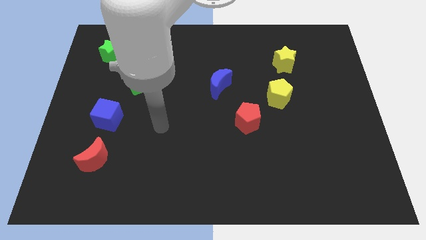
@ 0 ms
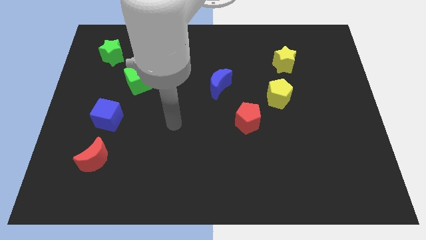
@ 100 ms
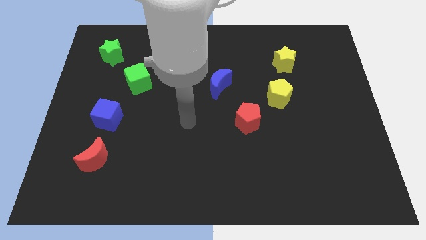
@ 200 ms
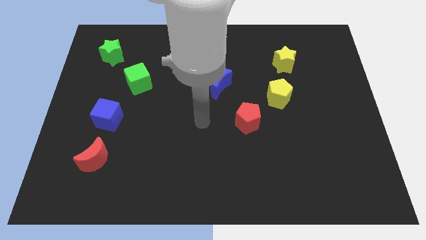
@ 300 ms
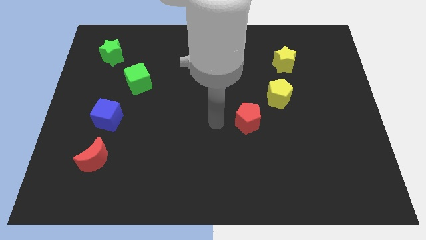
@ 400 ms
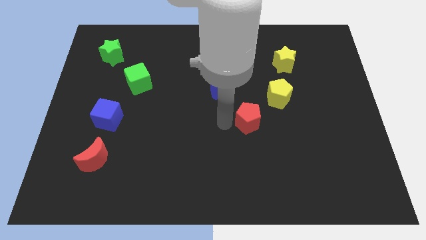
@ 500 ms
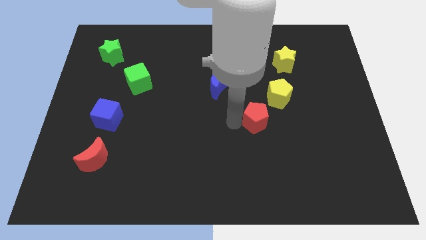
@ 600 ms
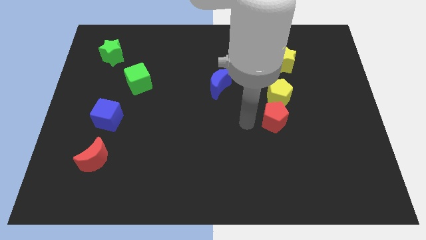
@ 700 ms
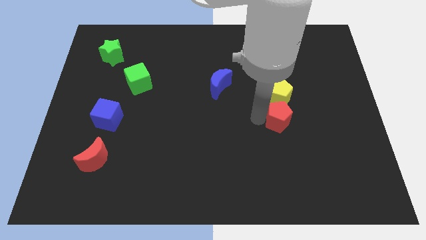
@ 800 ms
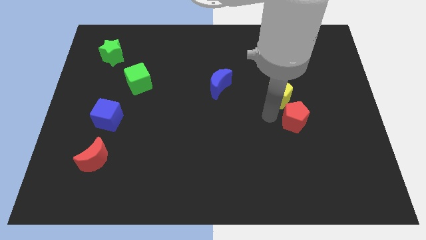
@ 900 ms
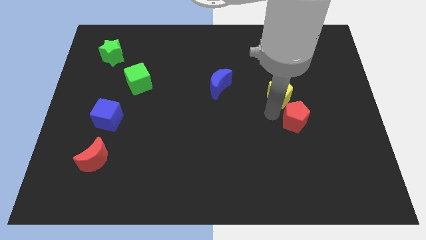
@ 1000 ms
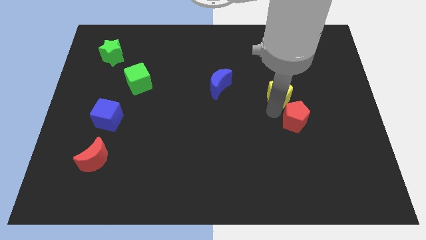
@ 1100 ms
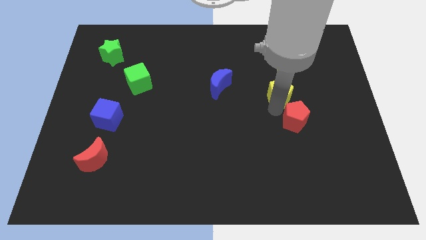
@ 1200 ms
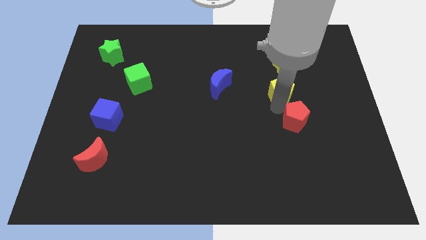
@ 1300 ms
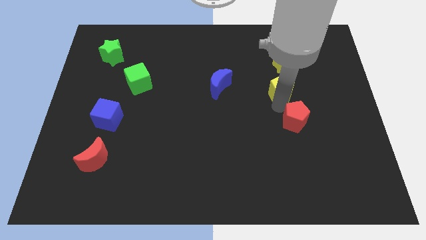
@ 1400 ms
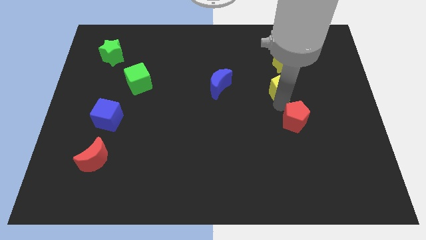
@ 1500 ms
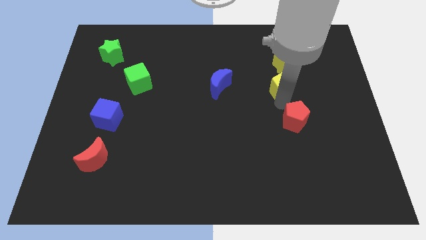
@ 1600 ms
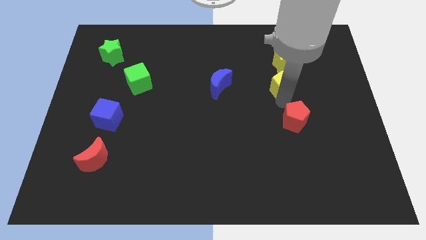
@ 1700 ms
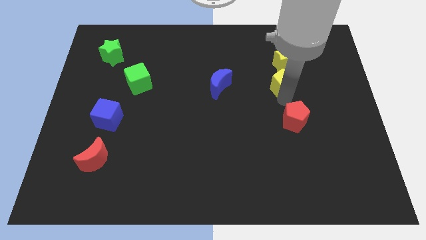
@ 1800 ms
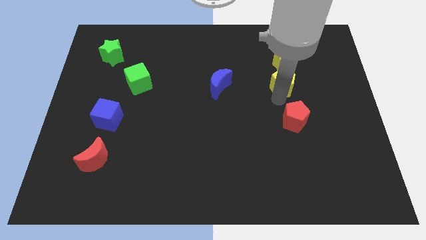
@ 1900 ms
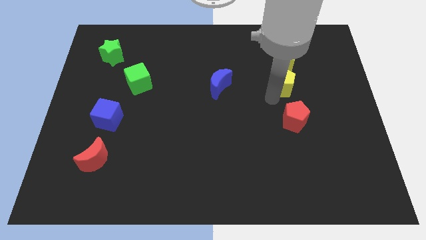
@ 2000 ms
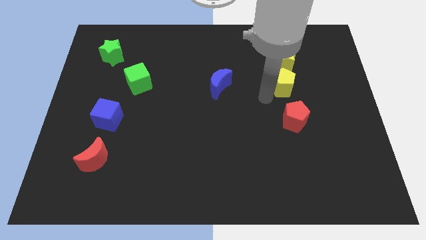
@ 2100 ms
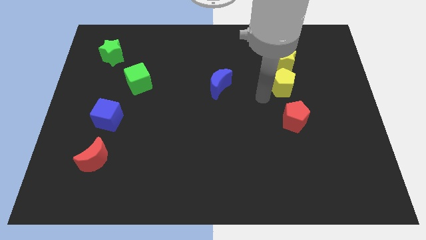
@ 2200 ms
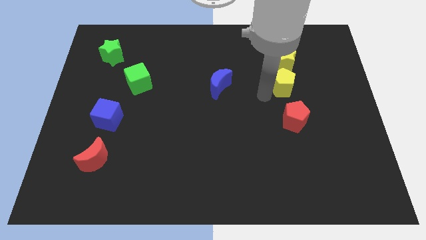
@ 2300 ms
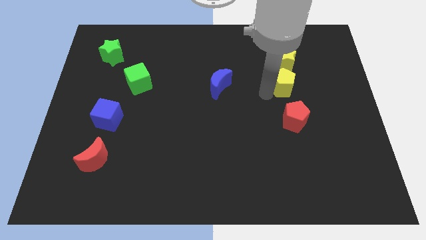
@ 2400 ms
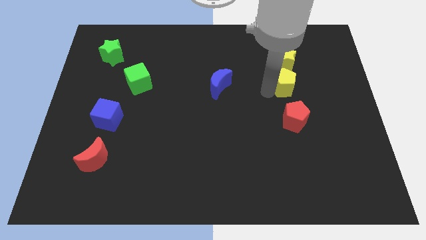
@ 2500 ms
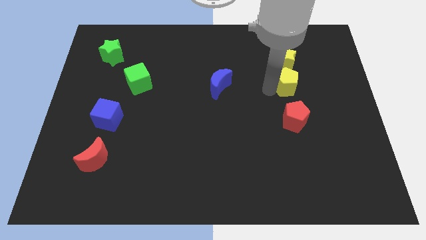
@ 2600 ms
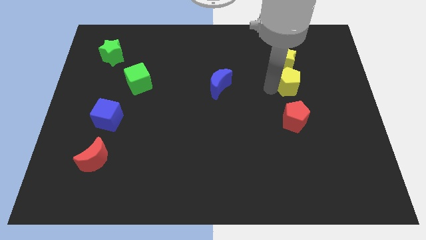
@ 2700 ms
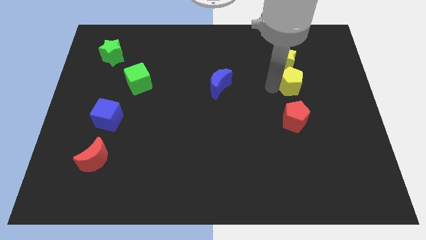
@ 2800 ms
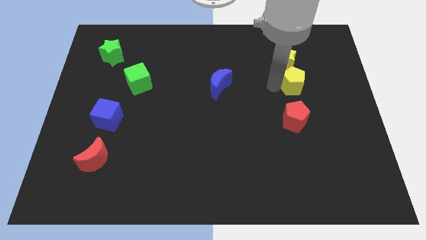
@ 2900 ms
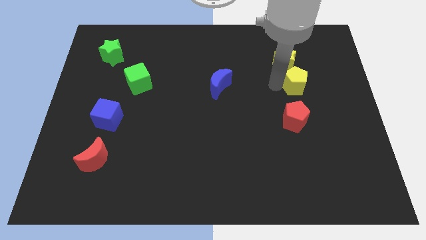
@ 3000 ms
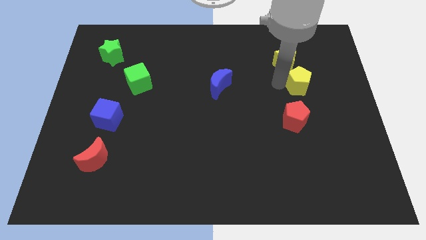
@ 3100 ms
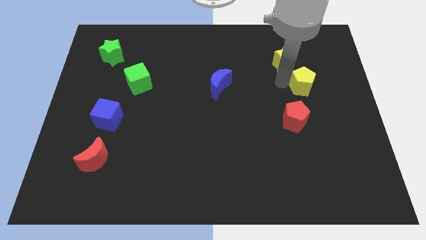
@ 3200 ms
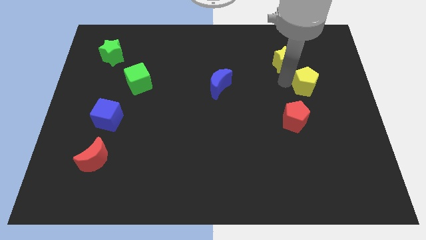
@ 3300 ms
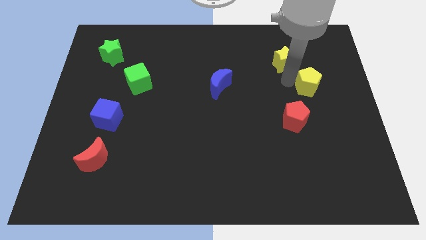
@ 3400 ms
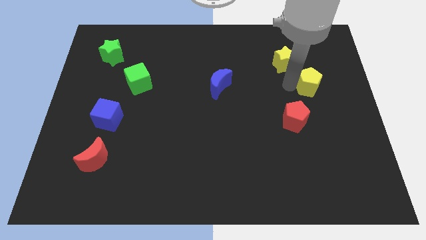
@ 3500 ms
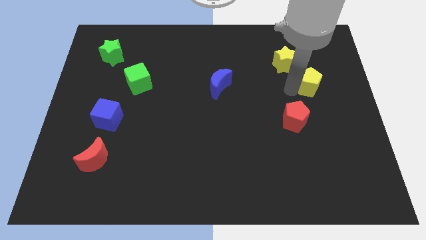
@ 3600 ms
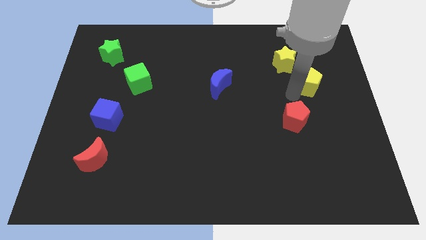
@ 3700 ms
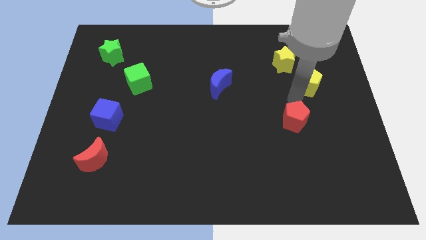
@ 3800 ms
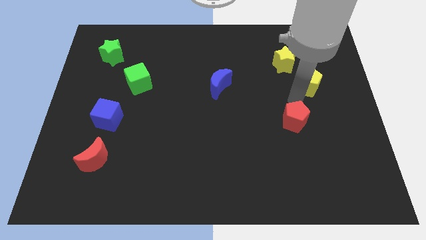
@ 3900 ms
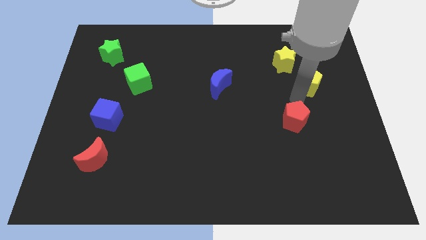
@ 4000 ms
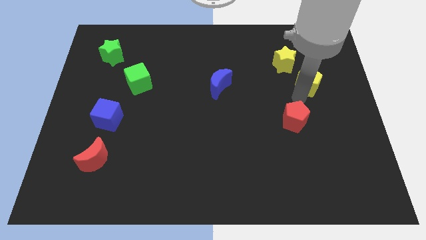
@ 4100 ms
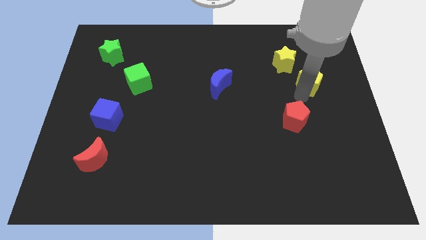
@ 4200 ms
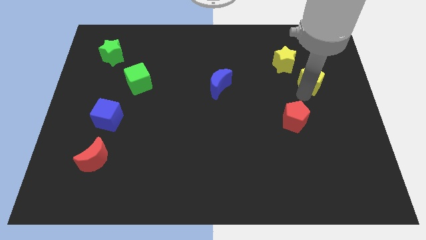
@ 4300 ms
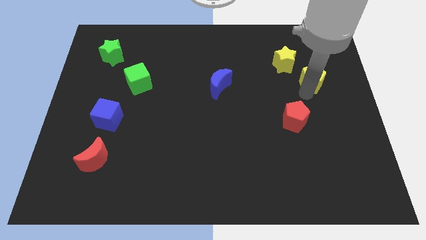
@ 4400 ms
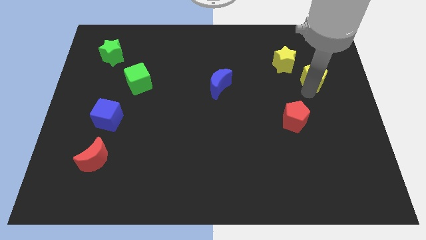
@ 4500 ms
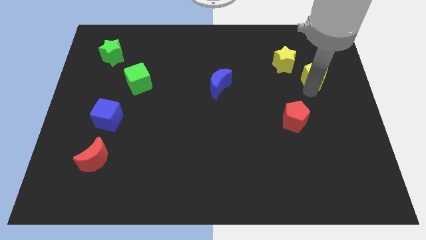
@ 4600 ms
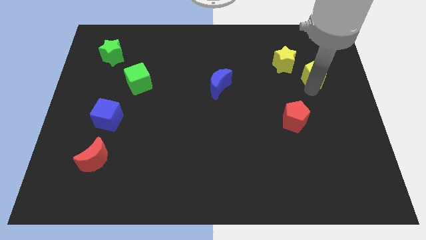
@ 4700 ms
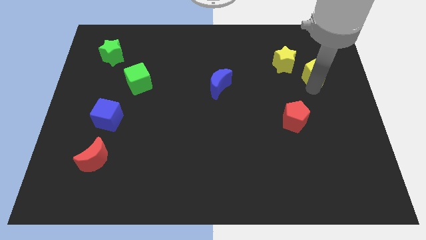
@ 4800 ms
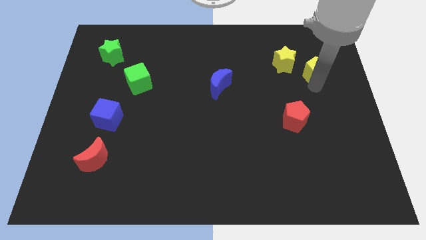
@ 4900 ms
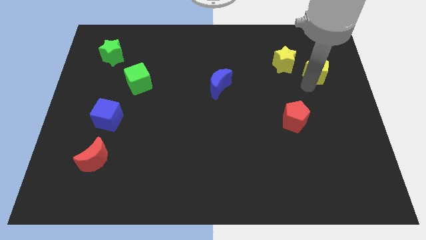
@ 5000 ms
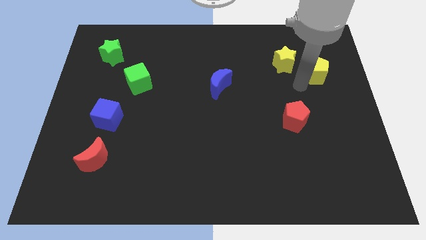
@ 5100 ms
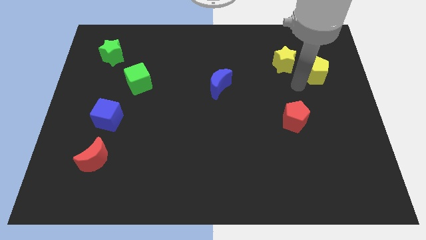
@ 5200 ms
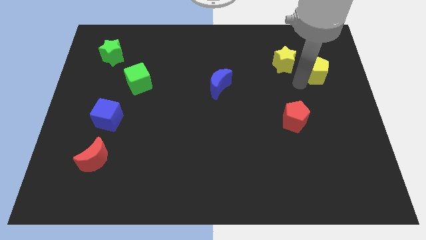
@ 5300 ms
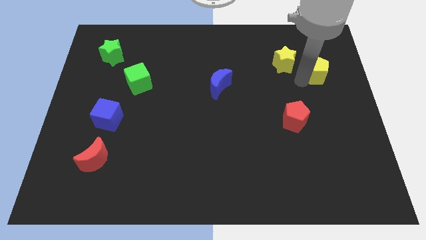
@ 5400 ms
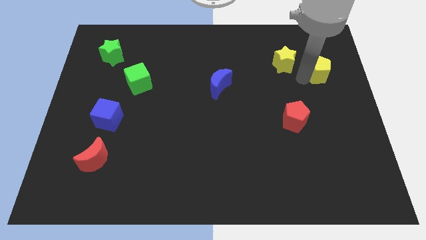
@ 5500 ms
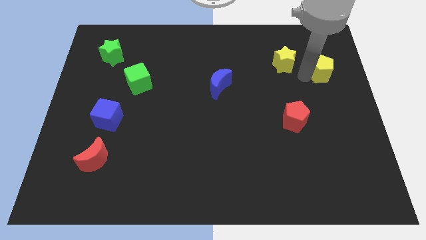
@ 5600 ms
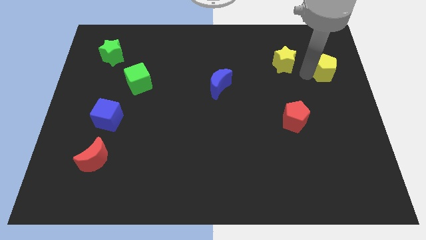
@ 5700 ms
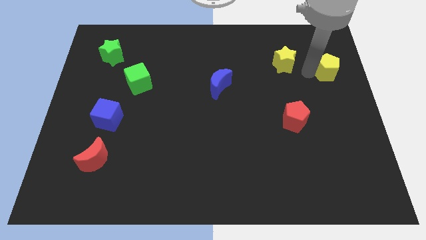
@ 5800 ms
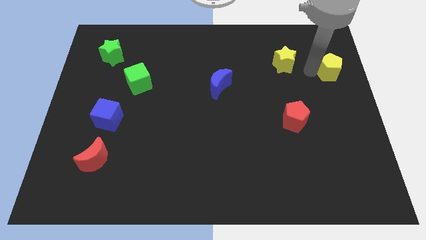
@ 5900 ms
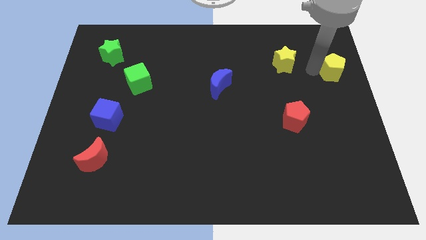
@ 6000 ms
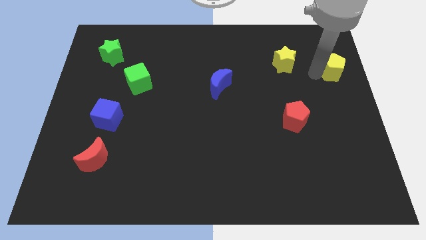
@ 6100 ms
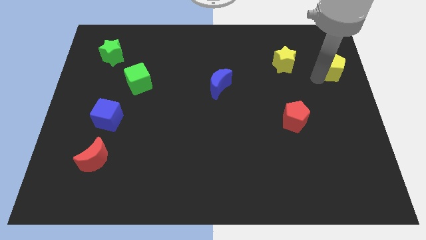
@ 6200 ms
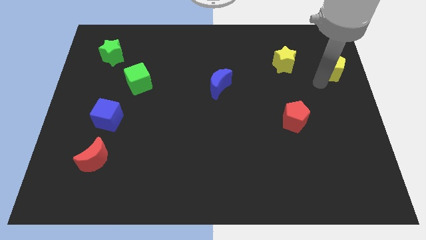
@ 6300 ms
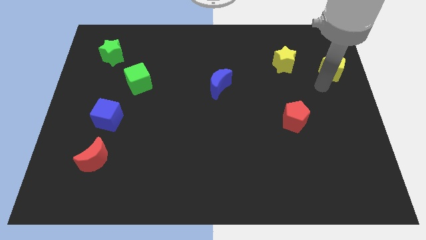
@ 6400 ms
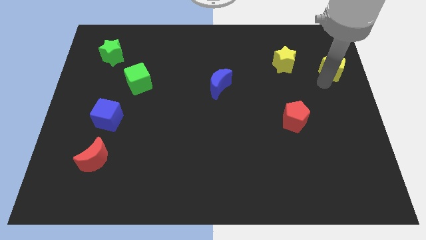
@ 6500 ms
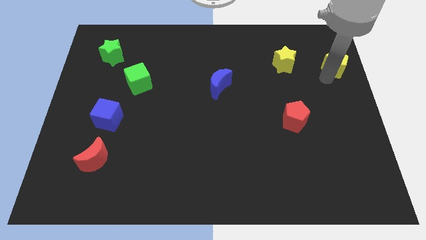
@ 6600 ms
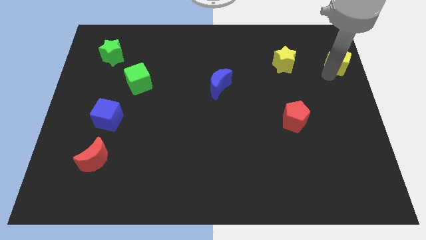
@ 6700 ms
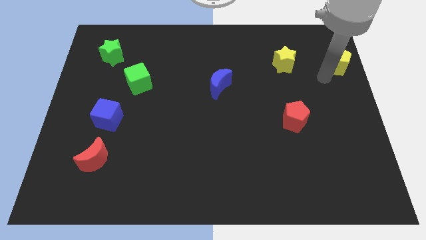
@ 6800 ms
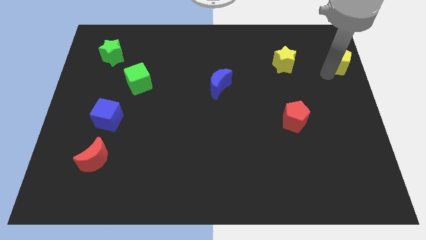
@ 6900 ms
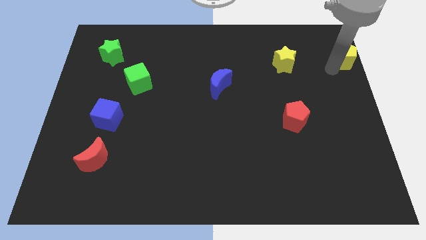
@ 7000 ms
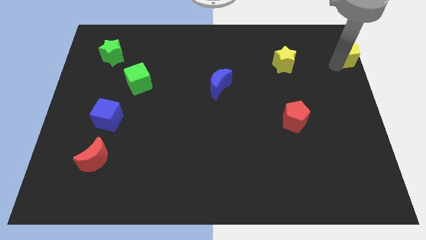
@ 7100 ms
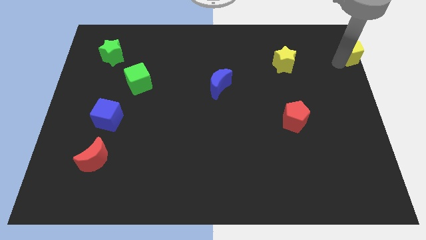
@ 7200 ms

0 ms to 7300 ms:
slide the yellow pentagon to the upper right corner
